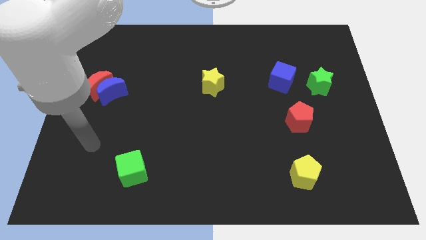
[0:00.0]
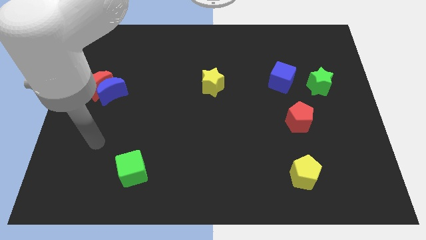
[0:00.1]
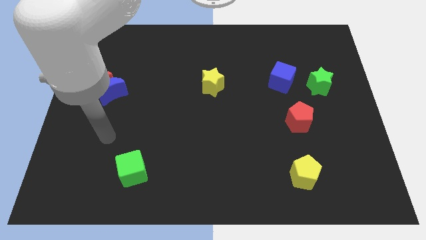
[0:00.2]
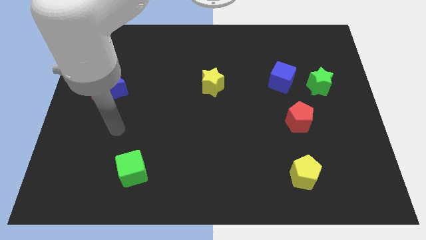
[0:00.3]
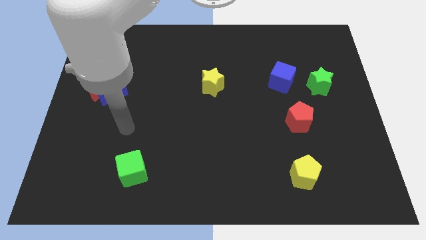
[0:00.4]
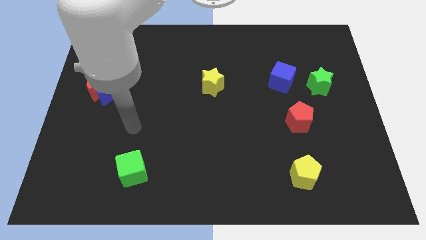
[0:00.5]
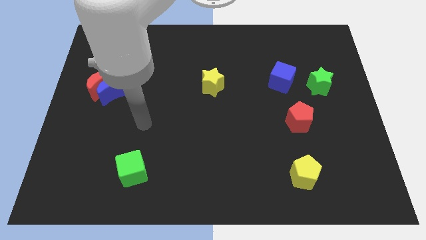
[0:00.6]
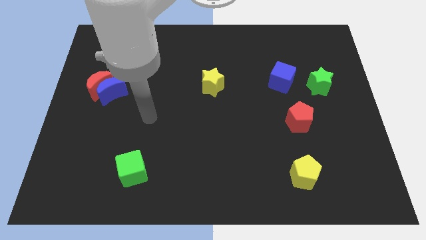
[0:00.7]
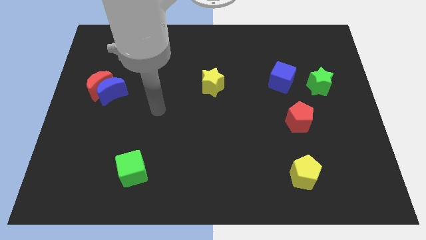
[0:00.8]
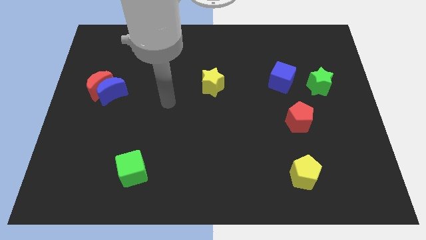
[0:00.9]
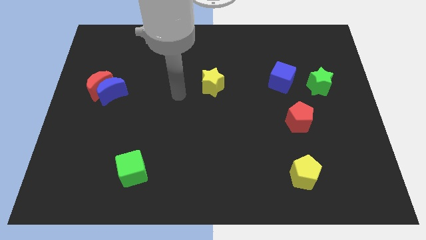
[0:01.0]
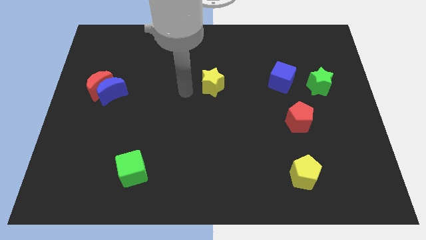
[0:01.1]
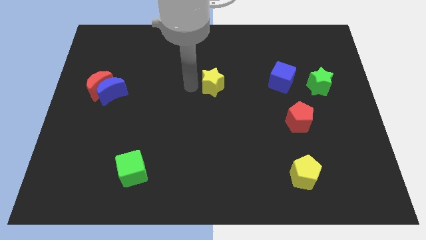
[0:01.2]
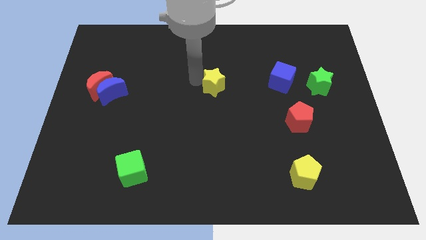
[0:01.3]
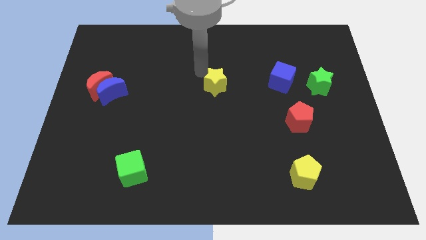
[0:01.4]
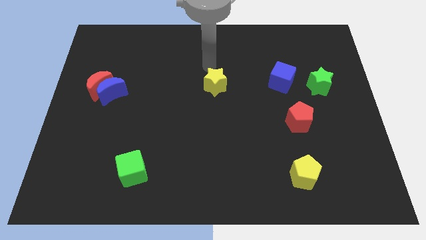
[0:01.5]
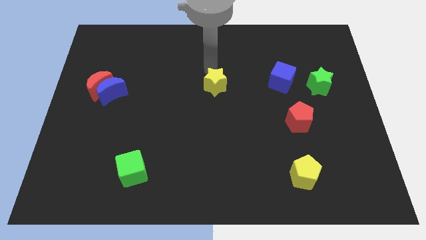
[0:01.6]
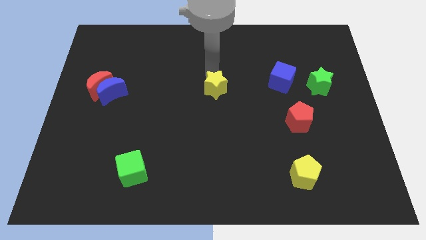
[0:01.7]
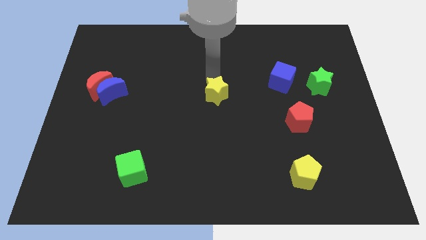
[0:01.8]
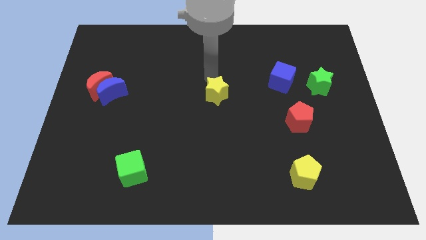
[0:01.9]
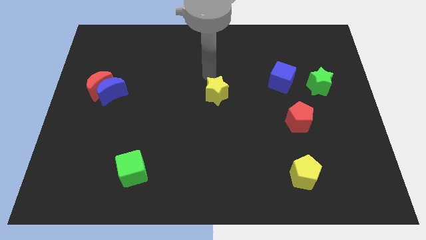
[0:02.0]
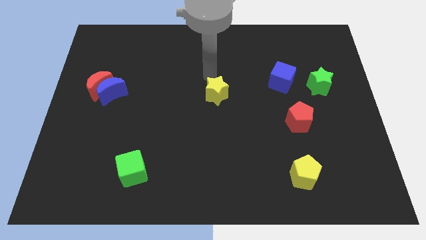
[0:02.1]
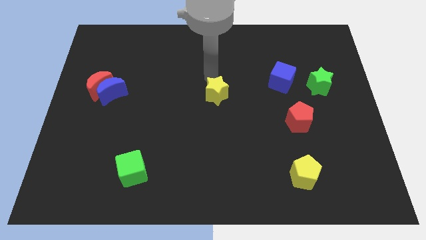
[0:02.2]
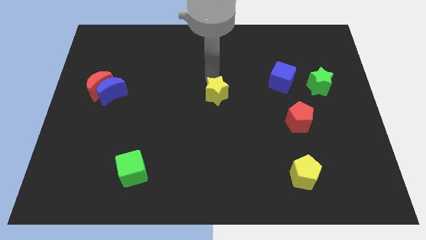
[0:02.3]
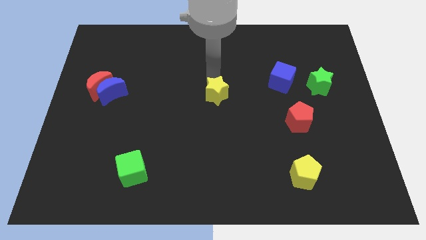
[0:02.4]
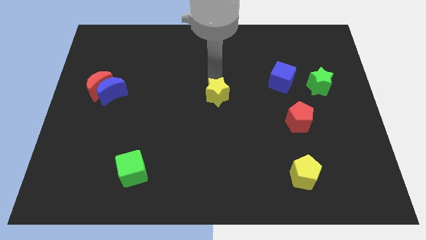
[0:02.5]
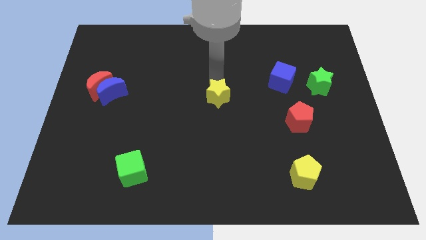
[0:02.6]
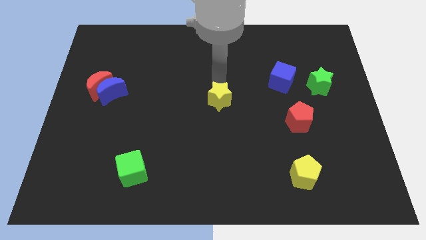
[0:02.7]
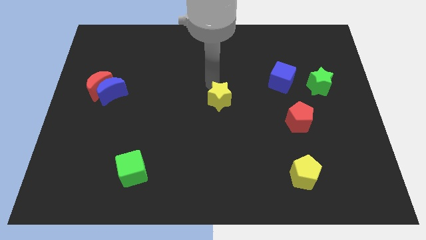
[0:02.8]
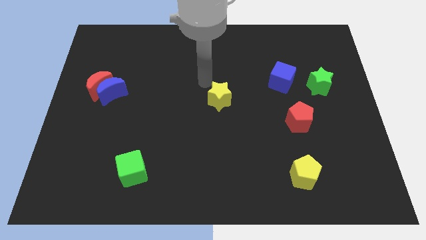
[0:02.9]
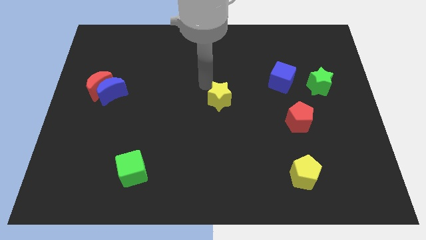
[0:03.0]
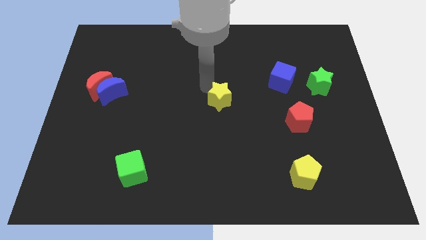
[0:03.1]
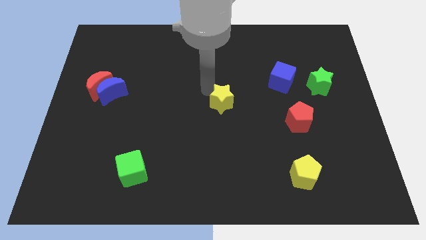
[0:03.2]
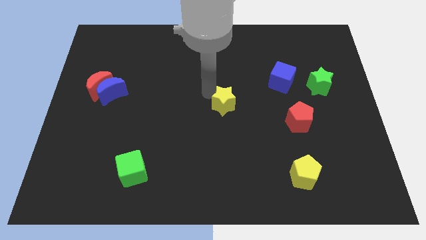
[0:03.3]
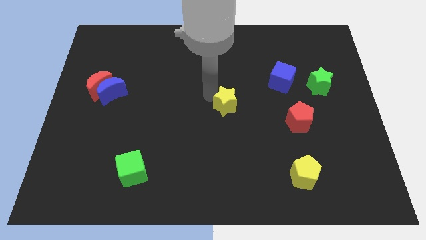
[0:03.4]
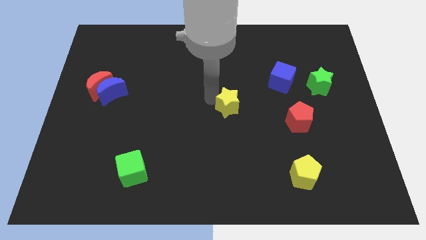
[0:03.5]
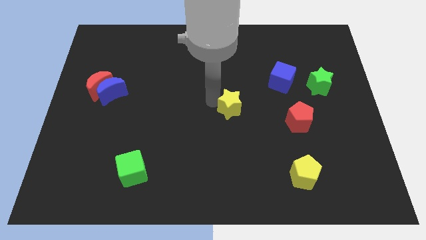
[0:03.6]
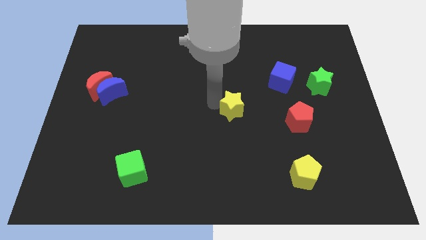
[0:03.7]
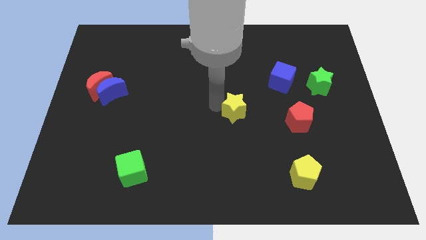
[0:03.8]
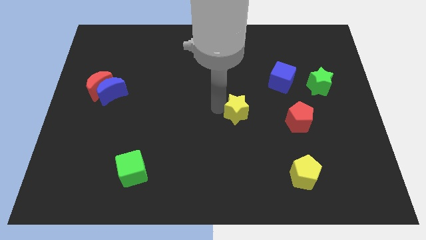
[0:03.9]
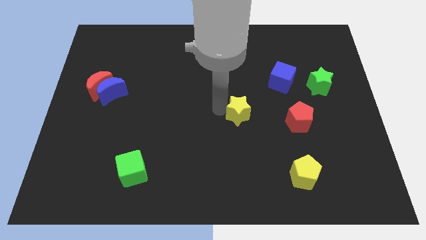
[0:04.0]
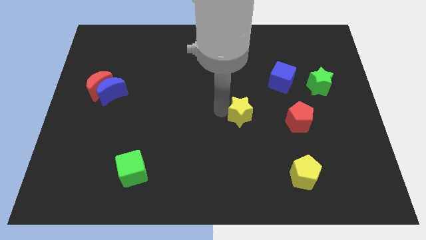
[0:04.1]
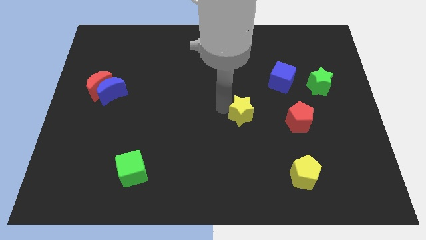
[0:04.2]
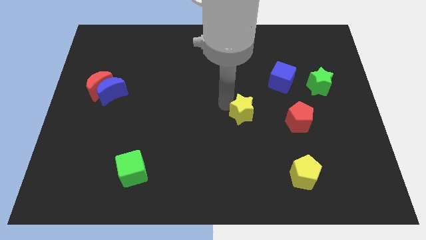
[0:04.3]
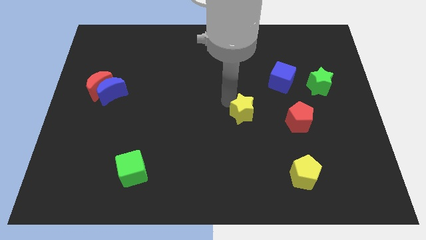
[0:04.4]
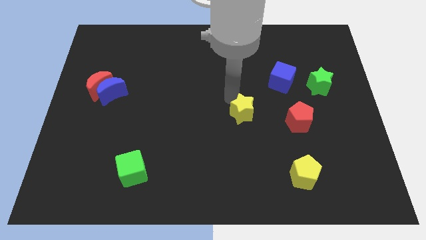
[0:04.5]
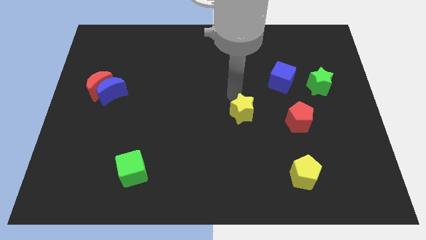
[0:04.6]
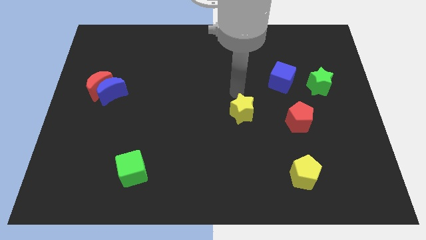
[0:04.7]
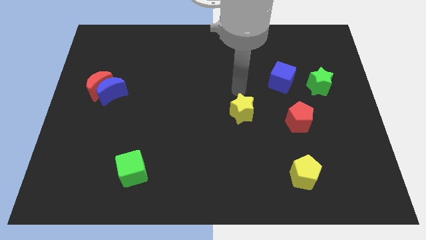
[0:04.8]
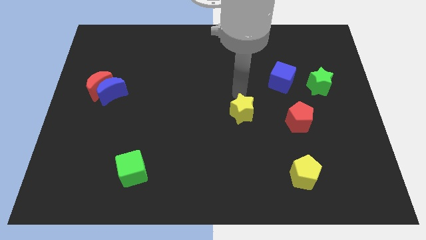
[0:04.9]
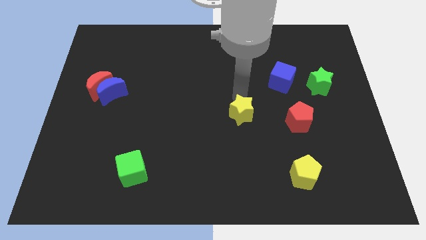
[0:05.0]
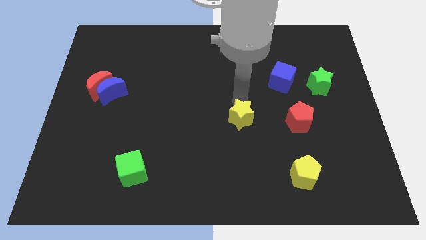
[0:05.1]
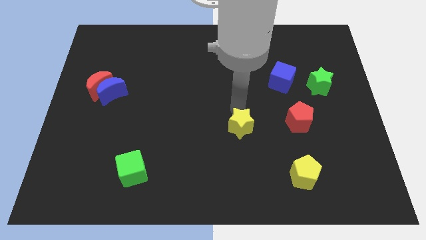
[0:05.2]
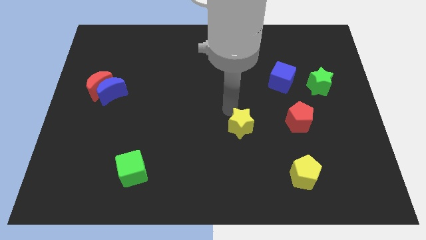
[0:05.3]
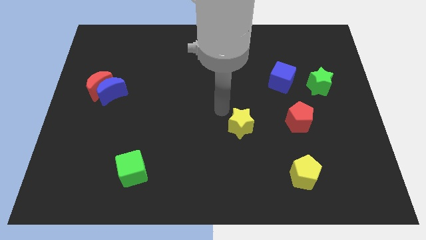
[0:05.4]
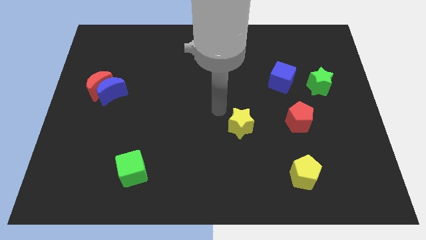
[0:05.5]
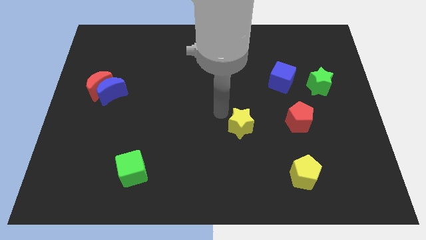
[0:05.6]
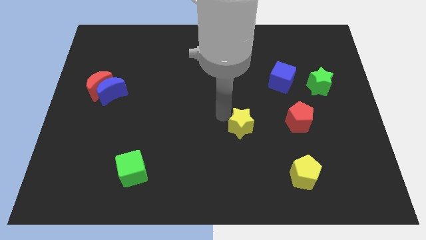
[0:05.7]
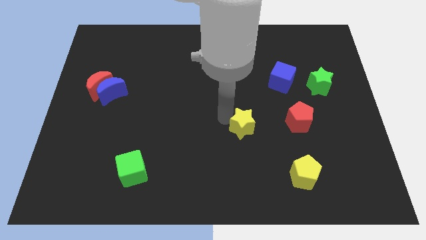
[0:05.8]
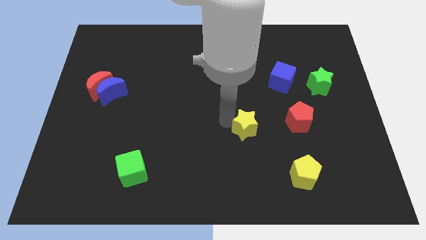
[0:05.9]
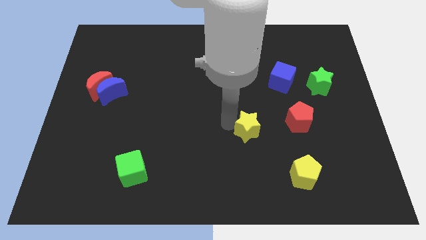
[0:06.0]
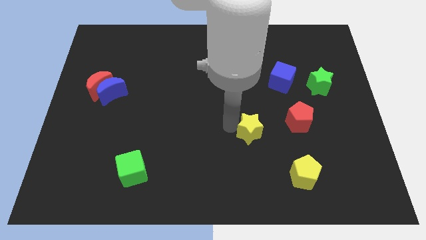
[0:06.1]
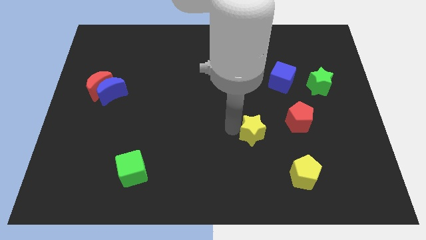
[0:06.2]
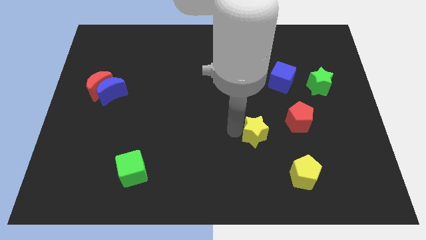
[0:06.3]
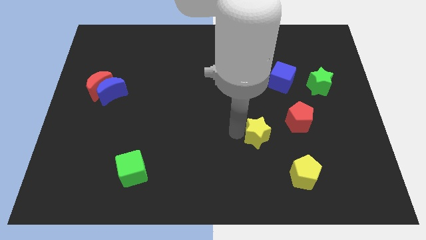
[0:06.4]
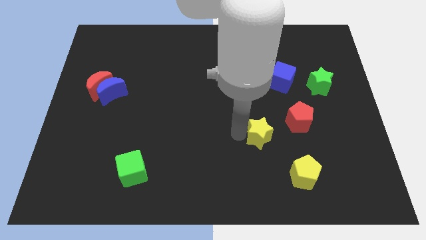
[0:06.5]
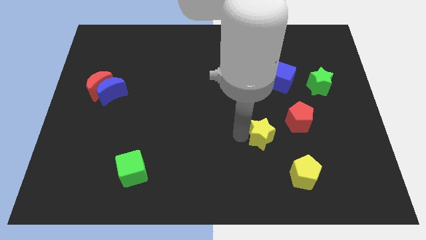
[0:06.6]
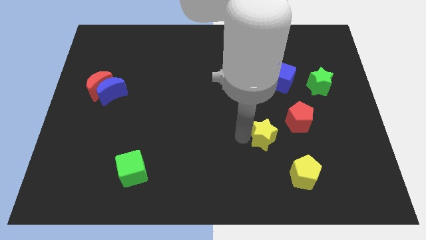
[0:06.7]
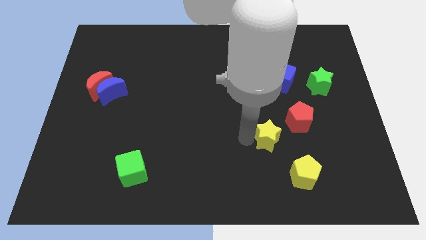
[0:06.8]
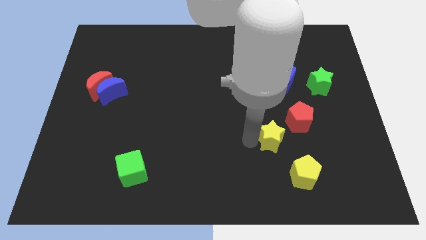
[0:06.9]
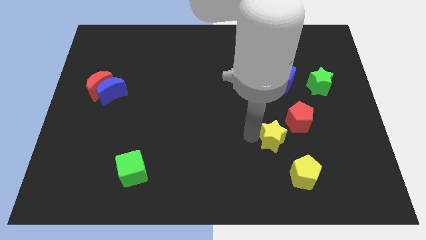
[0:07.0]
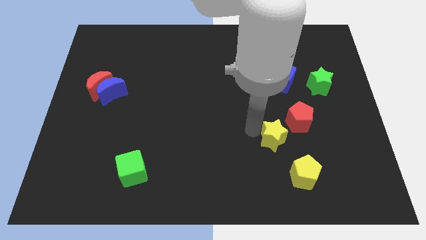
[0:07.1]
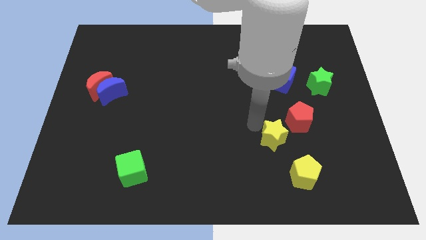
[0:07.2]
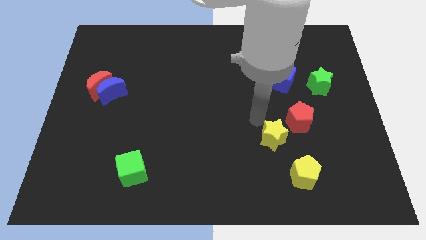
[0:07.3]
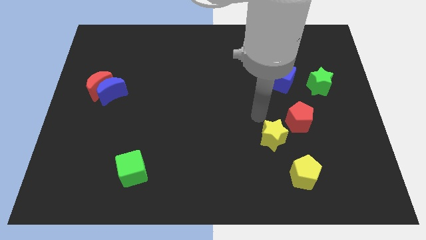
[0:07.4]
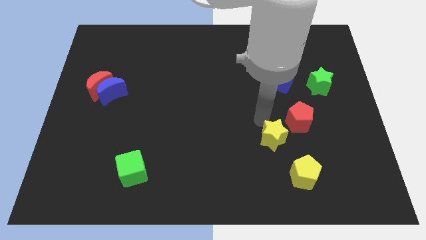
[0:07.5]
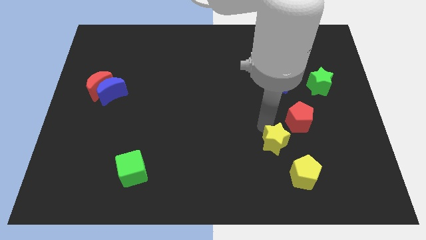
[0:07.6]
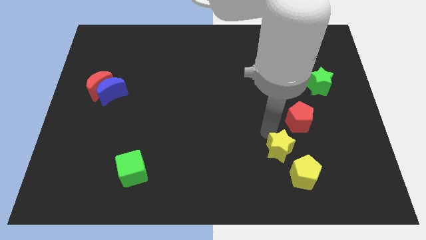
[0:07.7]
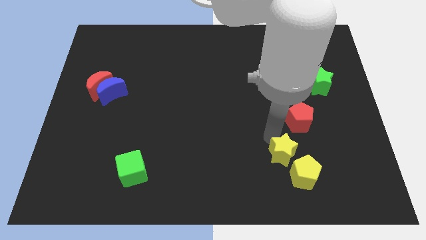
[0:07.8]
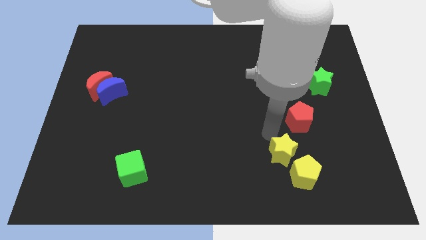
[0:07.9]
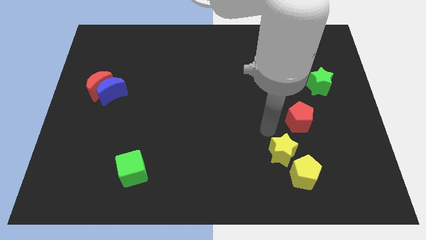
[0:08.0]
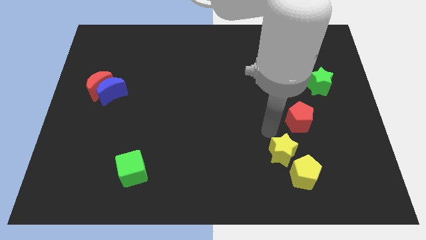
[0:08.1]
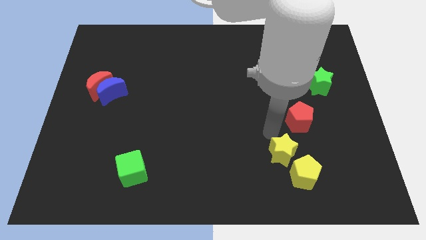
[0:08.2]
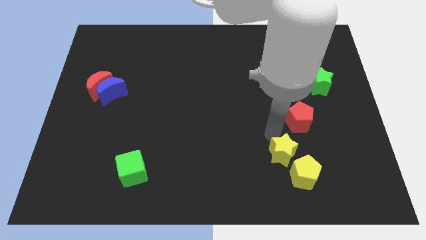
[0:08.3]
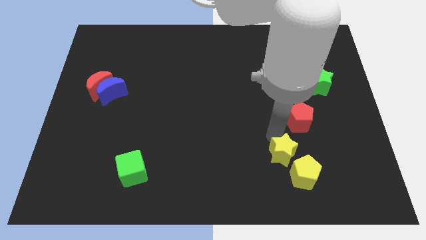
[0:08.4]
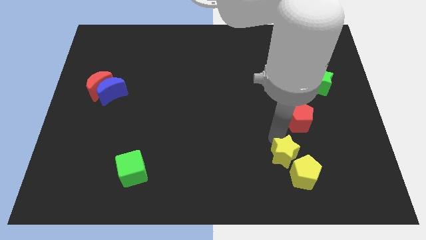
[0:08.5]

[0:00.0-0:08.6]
move the yellow star towards the yellow pentagon
